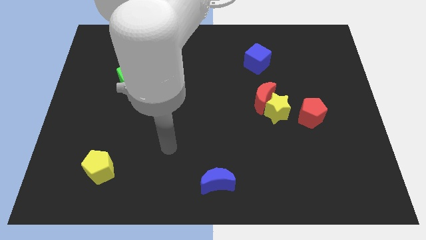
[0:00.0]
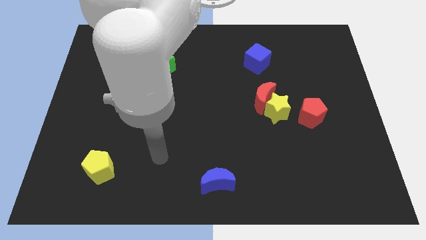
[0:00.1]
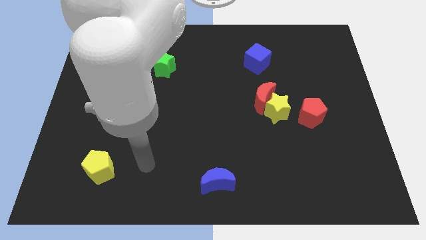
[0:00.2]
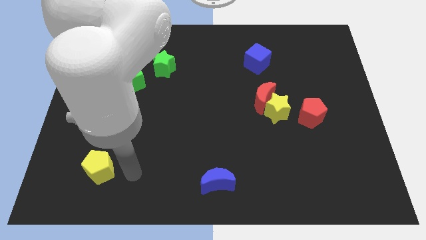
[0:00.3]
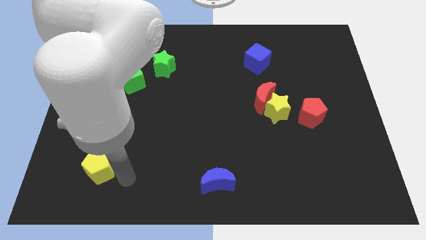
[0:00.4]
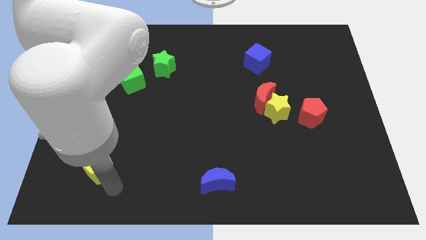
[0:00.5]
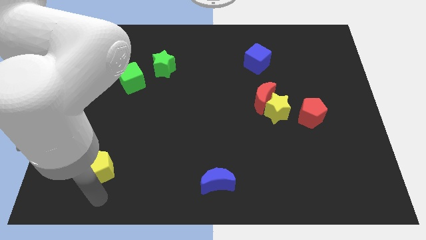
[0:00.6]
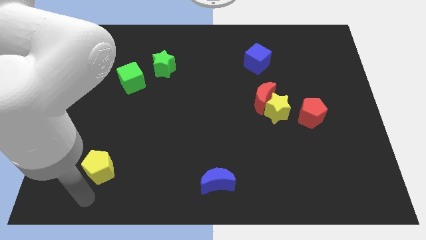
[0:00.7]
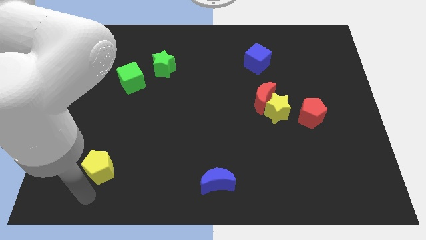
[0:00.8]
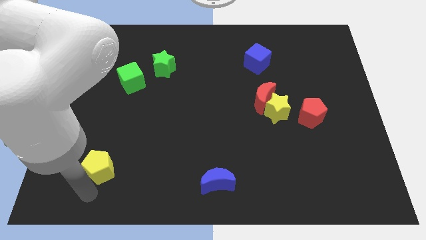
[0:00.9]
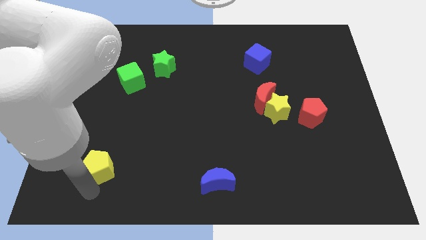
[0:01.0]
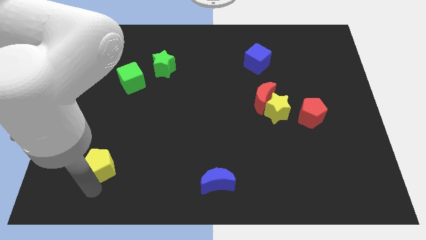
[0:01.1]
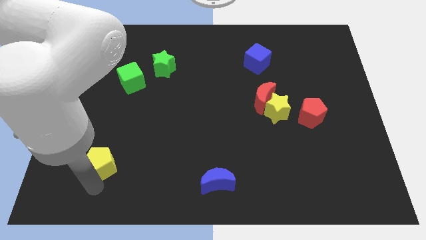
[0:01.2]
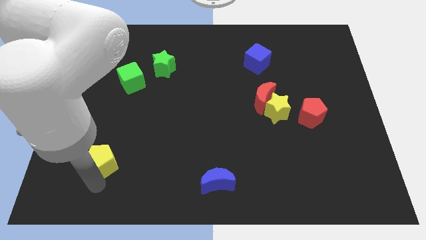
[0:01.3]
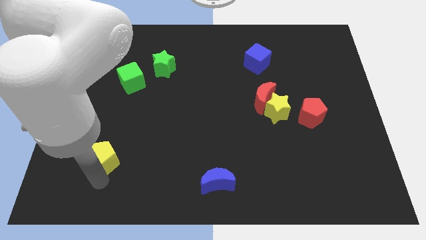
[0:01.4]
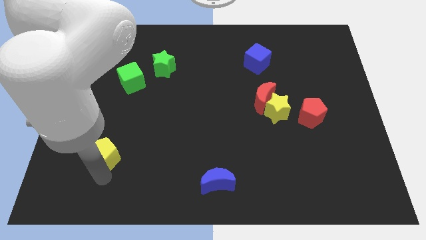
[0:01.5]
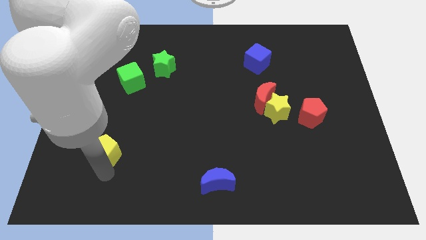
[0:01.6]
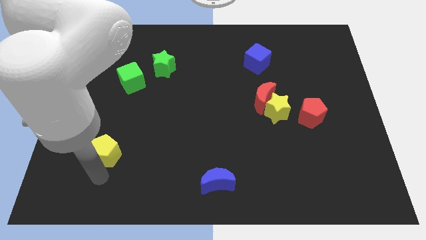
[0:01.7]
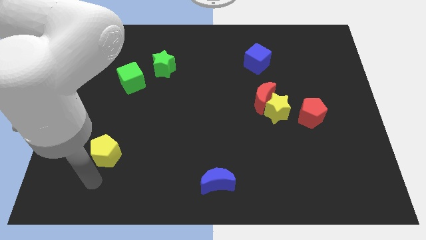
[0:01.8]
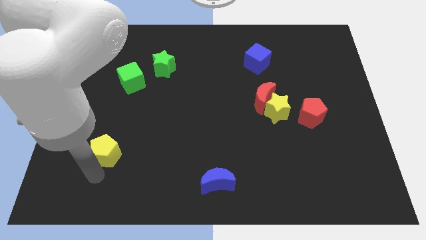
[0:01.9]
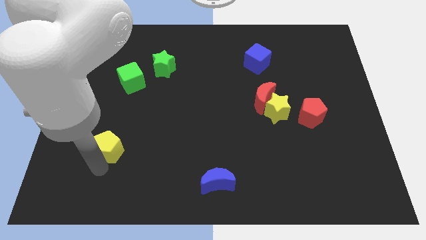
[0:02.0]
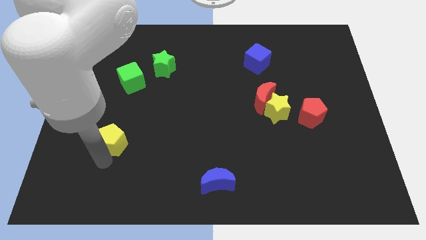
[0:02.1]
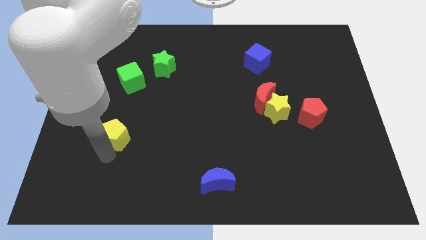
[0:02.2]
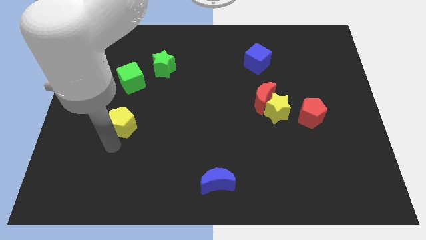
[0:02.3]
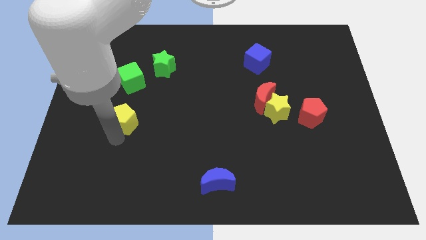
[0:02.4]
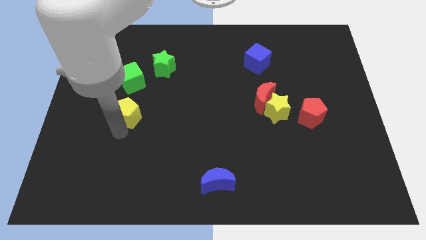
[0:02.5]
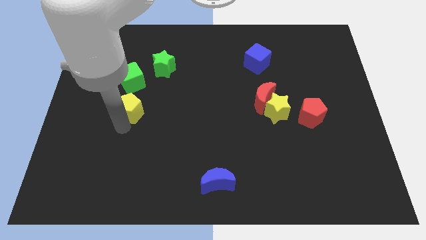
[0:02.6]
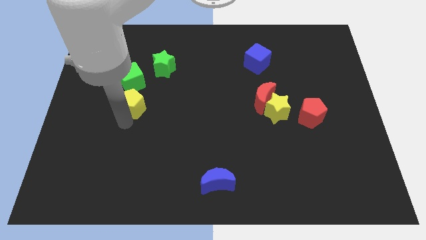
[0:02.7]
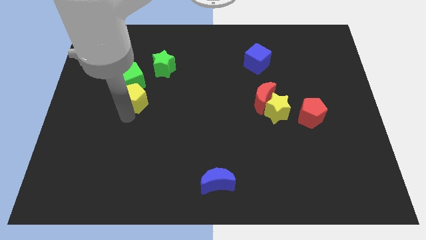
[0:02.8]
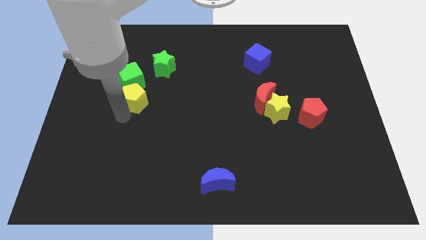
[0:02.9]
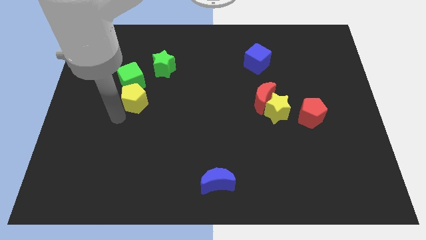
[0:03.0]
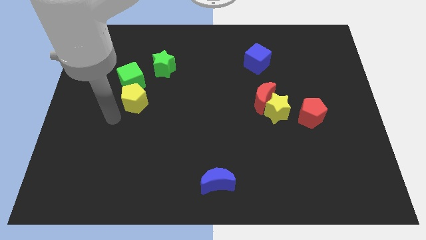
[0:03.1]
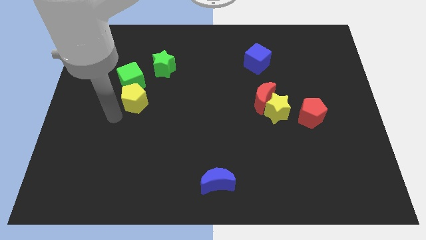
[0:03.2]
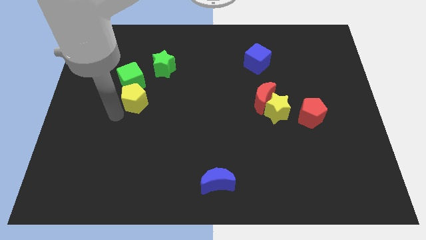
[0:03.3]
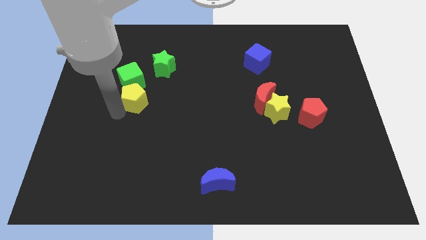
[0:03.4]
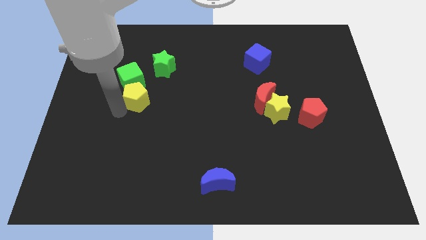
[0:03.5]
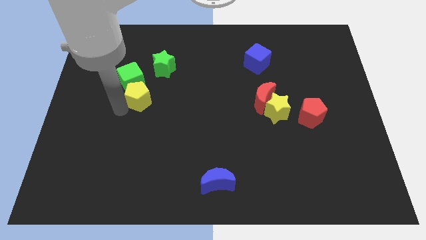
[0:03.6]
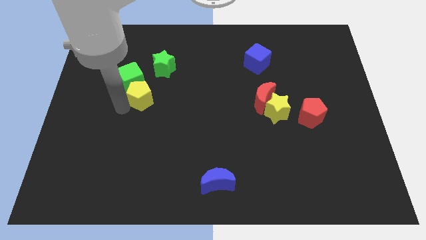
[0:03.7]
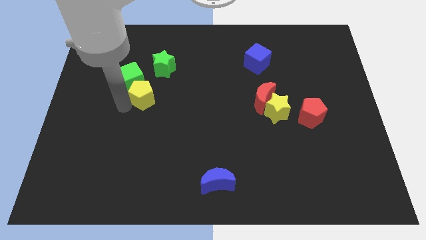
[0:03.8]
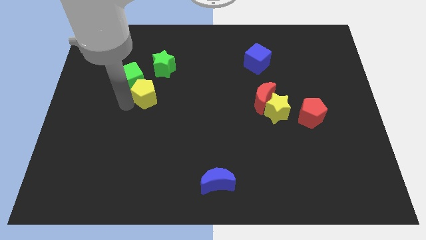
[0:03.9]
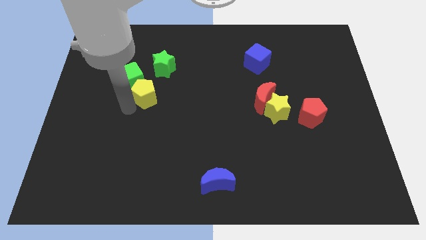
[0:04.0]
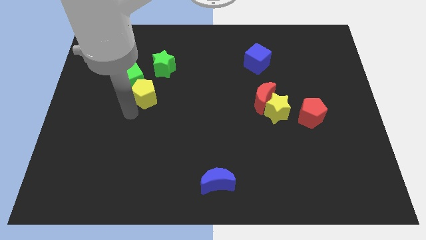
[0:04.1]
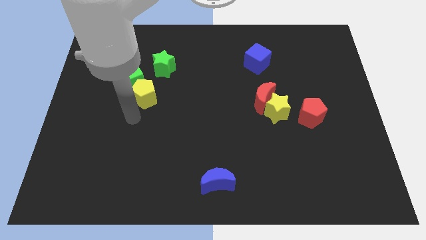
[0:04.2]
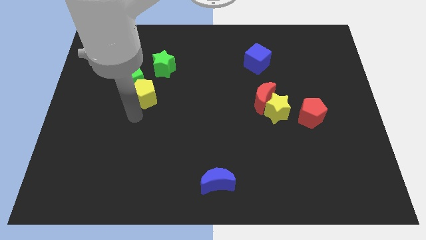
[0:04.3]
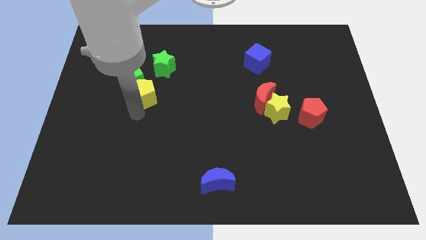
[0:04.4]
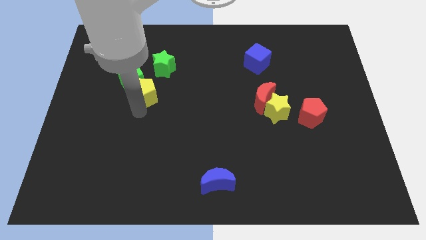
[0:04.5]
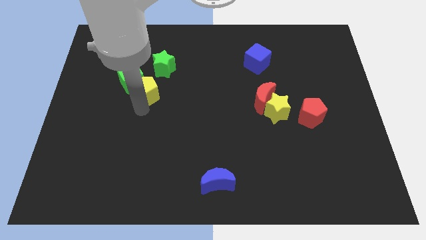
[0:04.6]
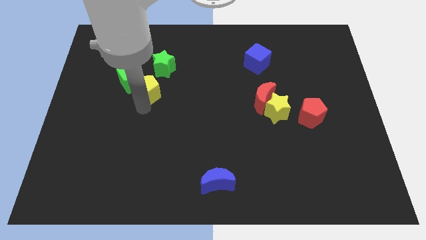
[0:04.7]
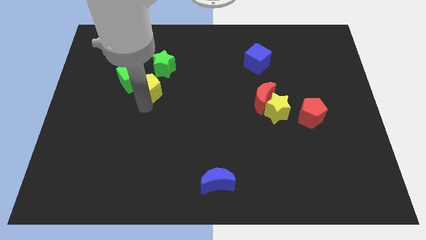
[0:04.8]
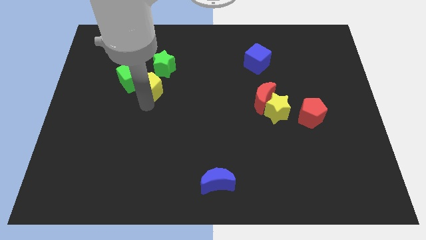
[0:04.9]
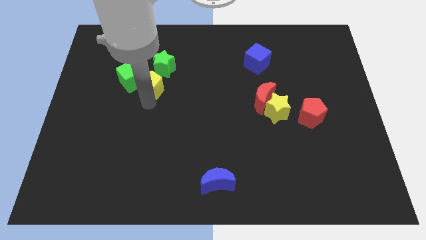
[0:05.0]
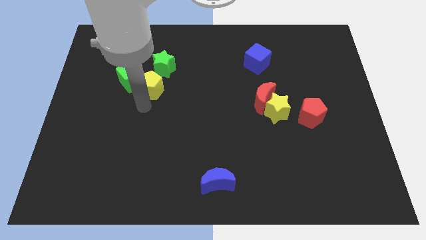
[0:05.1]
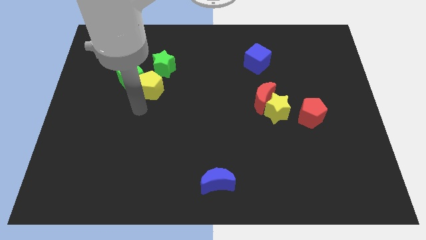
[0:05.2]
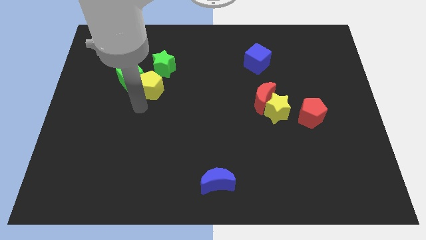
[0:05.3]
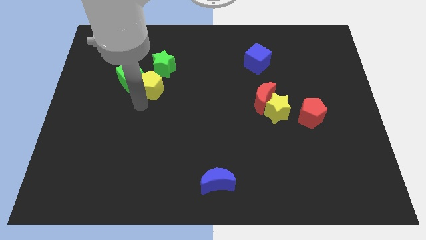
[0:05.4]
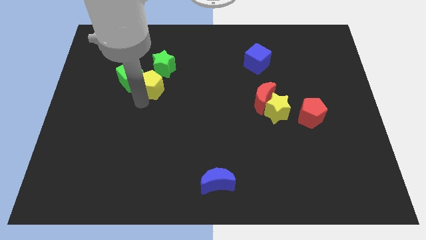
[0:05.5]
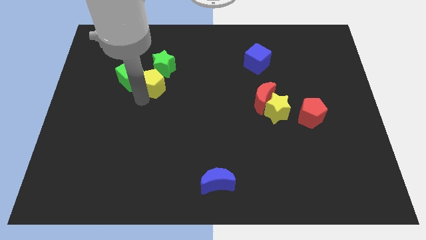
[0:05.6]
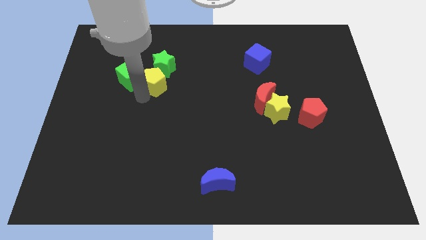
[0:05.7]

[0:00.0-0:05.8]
put the yellow pentagon close to the green star

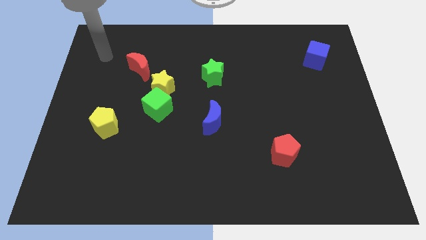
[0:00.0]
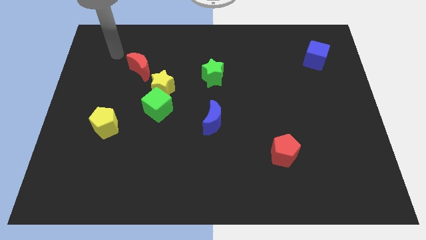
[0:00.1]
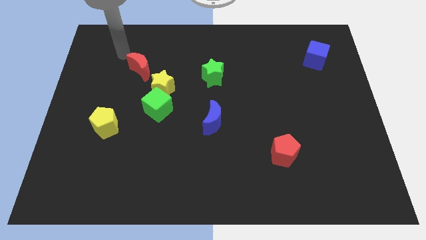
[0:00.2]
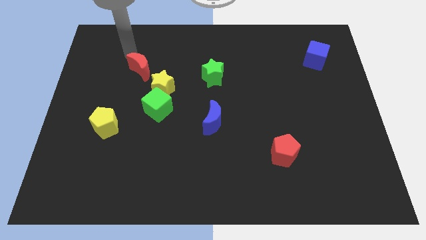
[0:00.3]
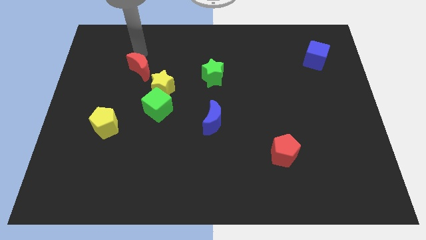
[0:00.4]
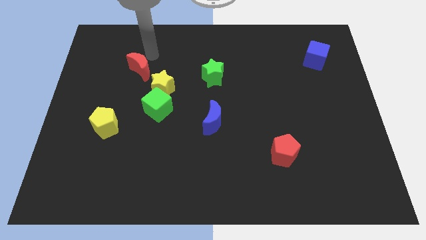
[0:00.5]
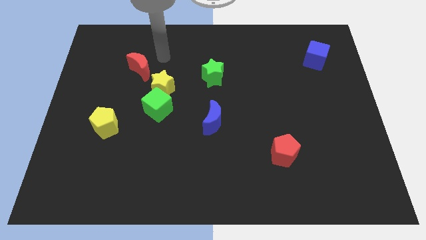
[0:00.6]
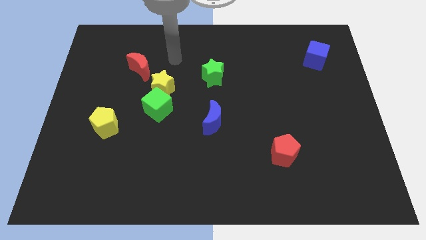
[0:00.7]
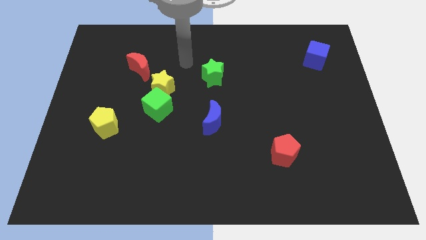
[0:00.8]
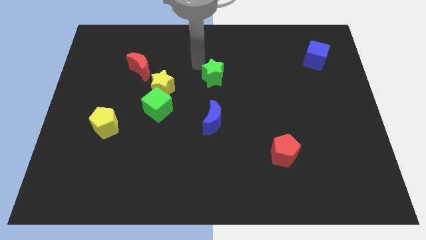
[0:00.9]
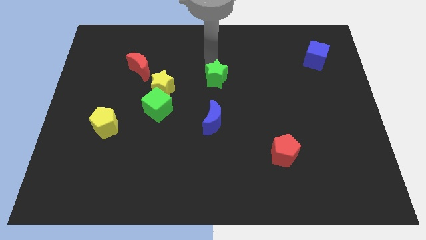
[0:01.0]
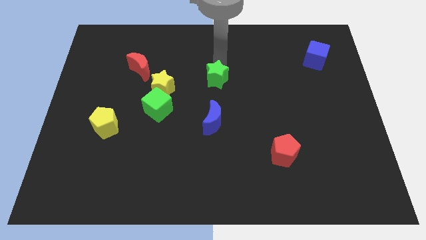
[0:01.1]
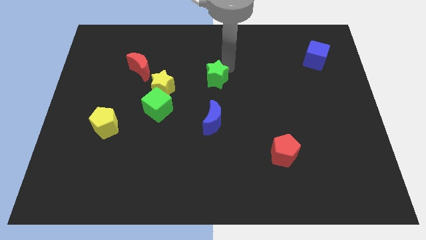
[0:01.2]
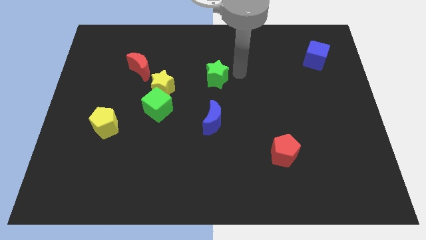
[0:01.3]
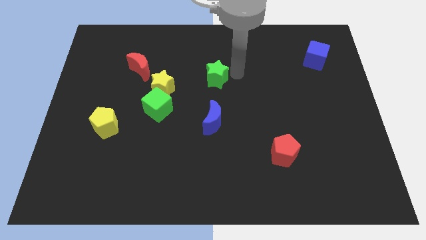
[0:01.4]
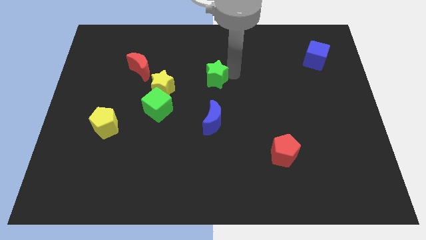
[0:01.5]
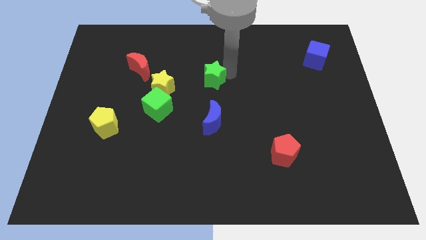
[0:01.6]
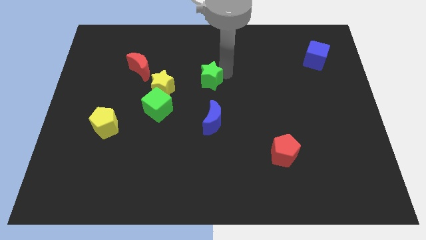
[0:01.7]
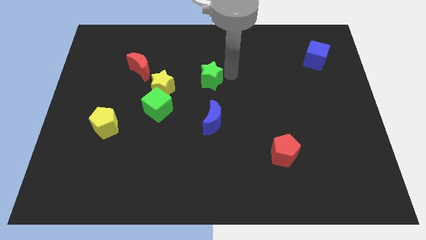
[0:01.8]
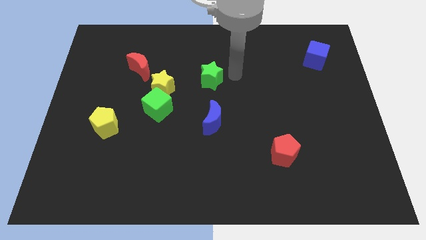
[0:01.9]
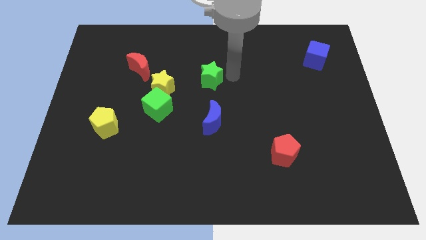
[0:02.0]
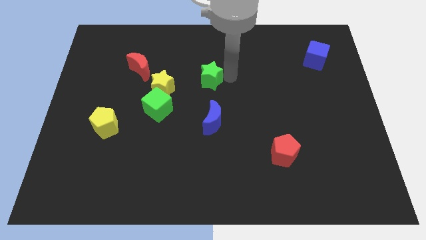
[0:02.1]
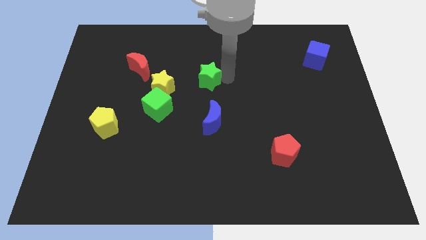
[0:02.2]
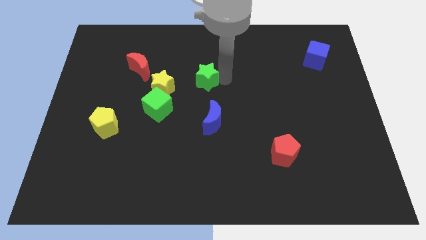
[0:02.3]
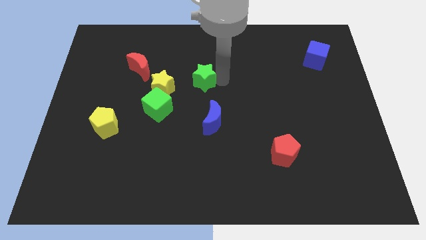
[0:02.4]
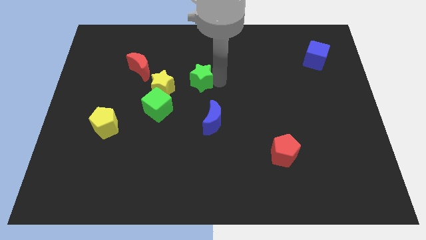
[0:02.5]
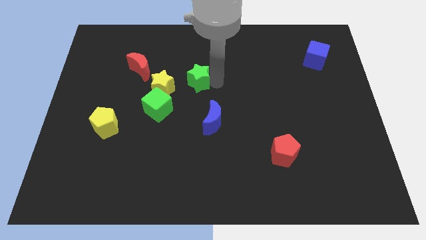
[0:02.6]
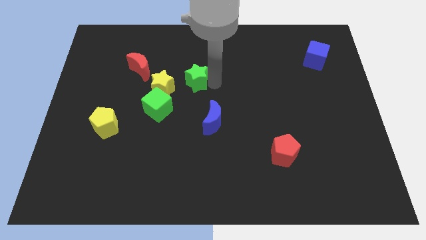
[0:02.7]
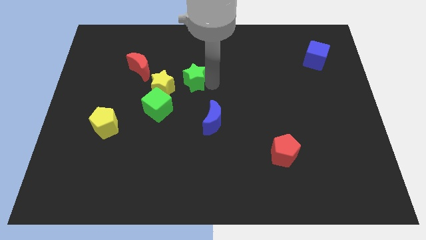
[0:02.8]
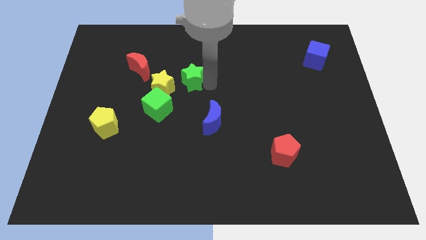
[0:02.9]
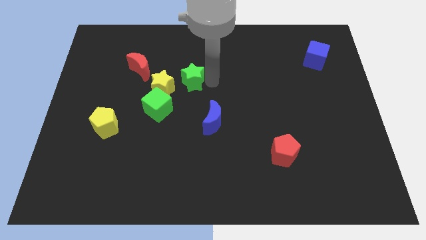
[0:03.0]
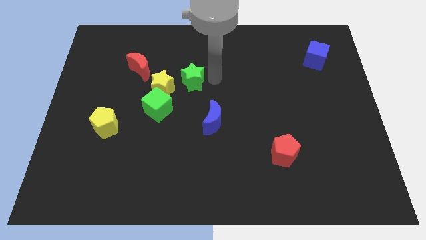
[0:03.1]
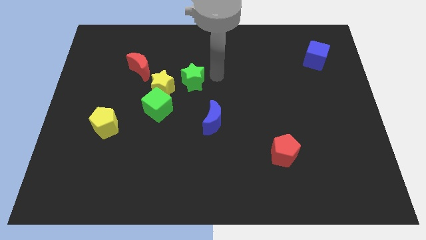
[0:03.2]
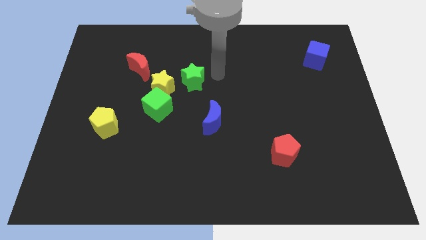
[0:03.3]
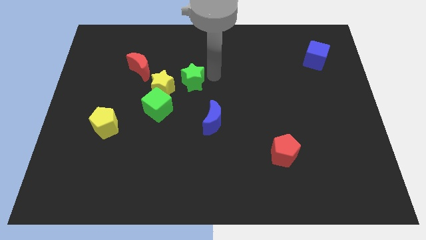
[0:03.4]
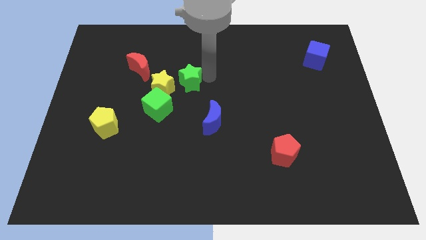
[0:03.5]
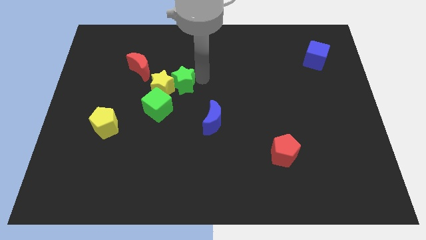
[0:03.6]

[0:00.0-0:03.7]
put the green star to the yellow star
